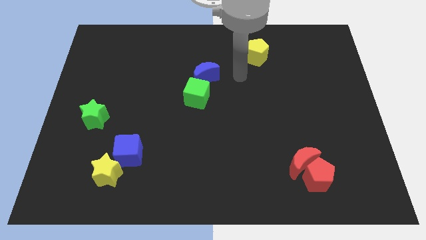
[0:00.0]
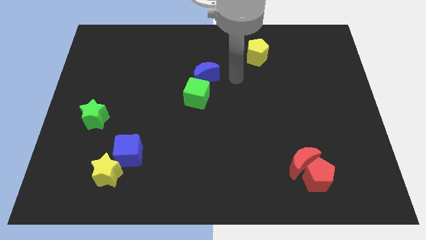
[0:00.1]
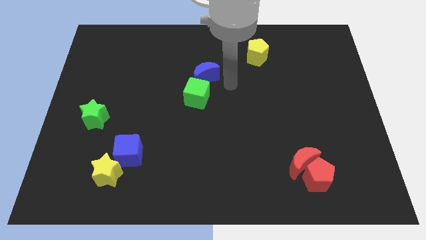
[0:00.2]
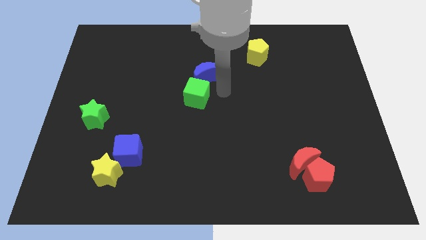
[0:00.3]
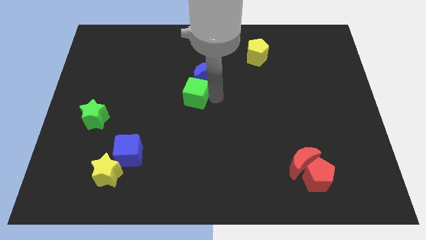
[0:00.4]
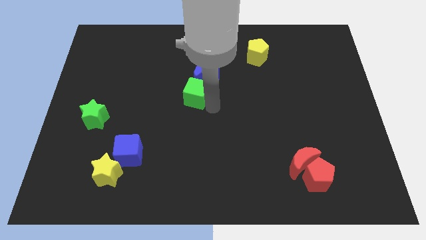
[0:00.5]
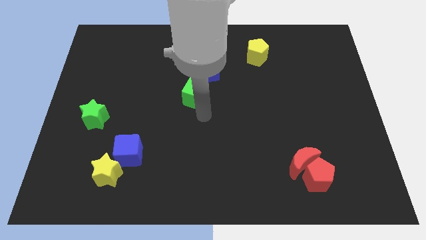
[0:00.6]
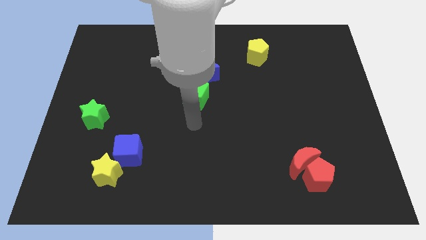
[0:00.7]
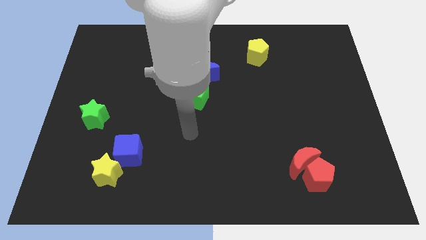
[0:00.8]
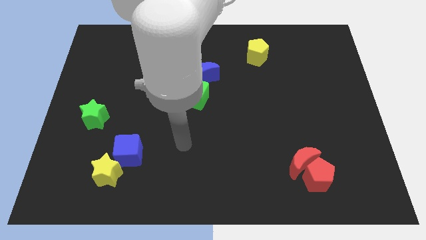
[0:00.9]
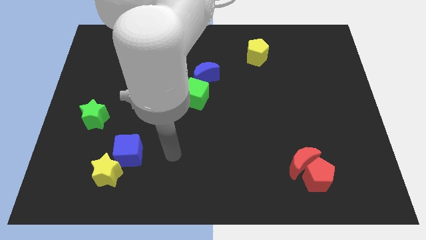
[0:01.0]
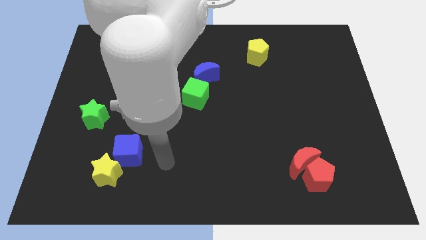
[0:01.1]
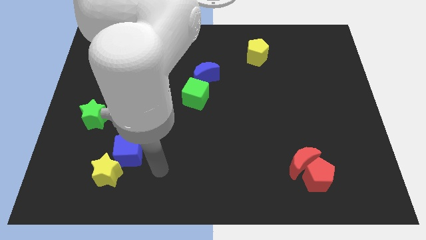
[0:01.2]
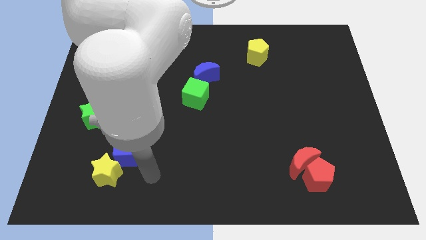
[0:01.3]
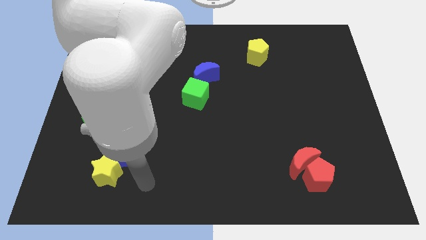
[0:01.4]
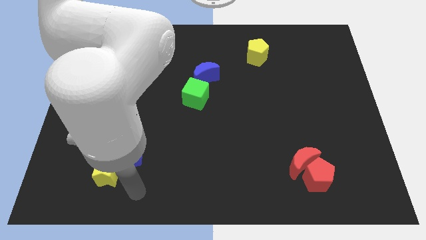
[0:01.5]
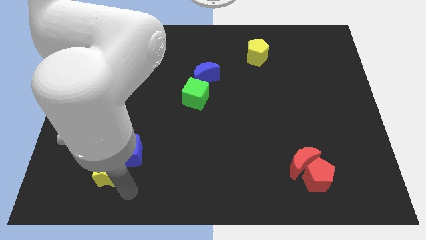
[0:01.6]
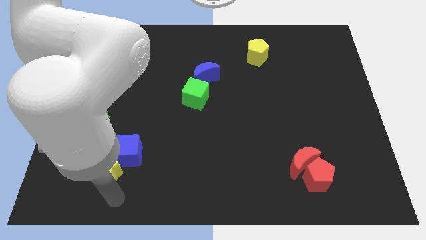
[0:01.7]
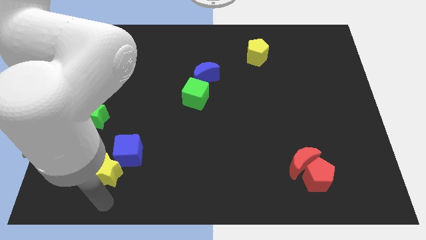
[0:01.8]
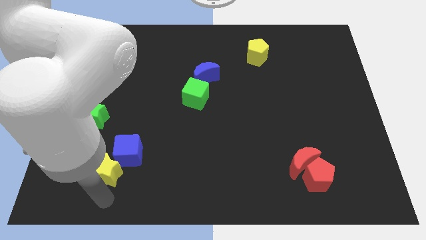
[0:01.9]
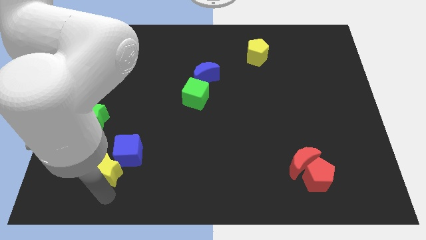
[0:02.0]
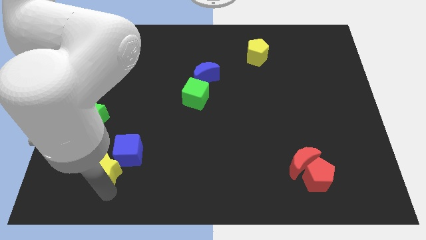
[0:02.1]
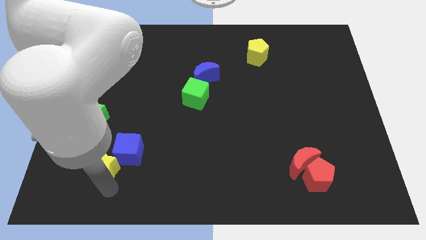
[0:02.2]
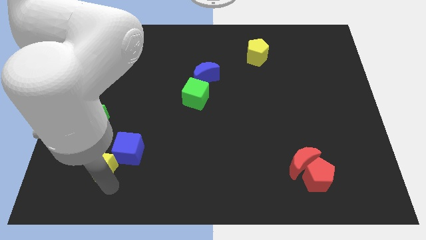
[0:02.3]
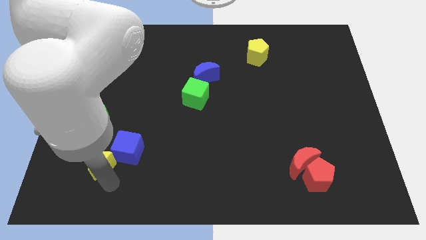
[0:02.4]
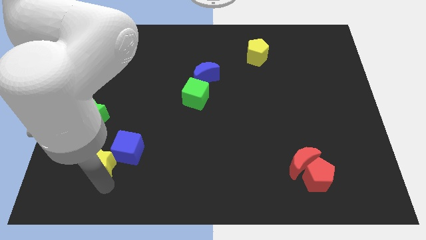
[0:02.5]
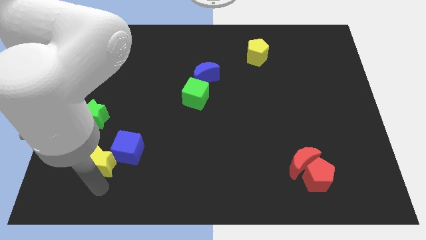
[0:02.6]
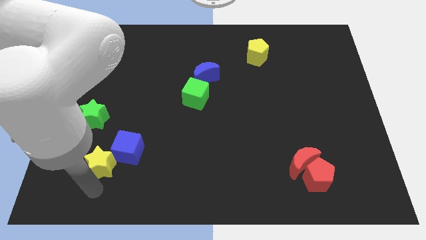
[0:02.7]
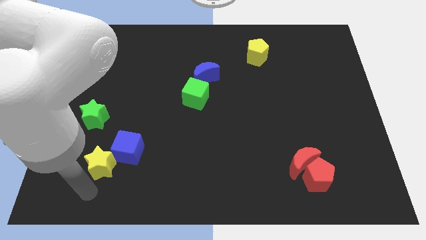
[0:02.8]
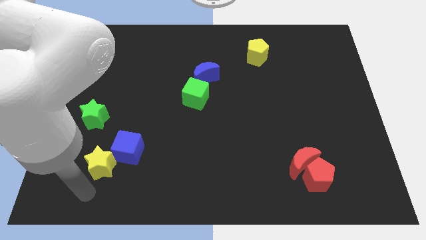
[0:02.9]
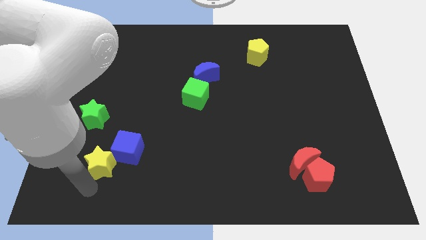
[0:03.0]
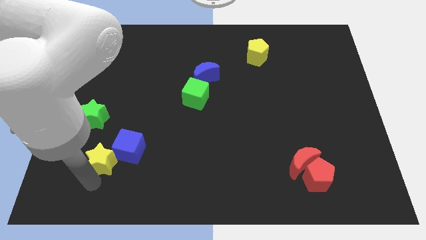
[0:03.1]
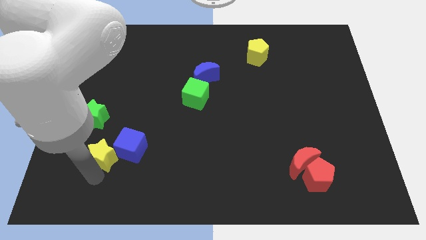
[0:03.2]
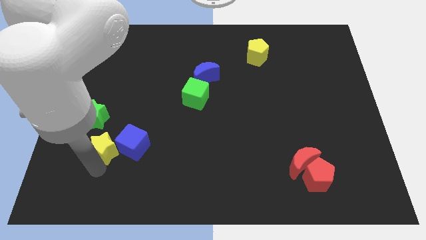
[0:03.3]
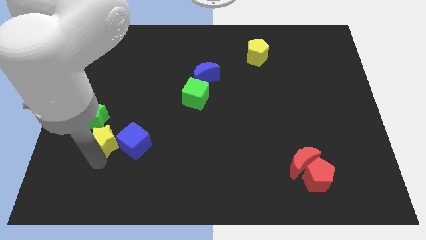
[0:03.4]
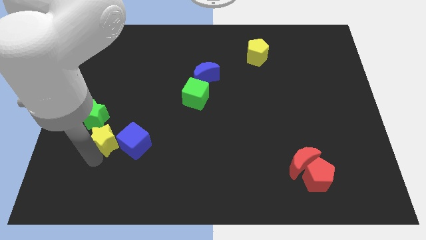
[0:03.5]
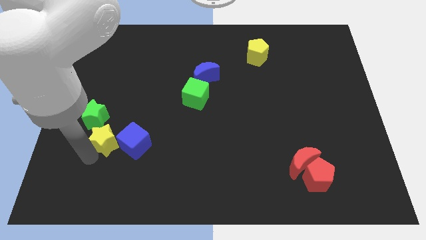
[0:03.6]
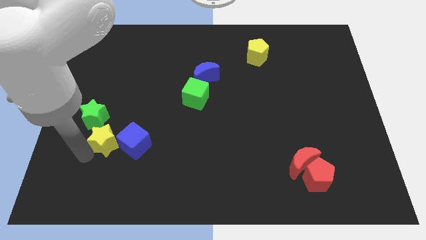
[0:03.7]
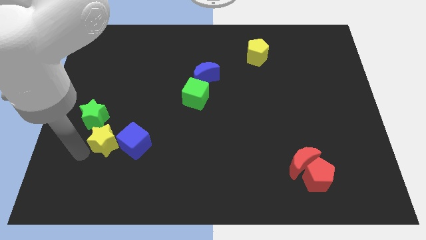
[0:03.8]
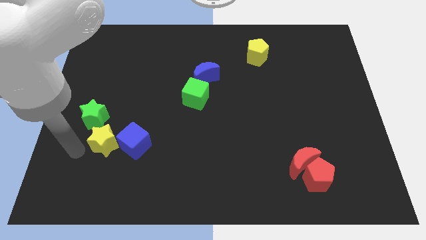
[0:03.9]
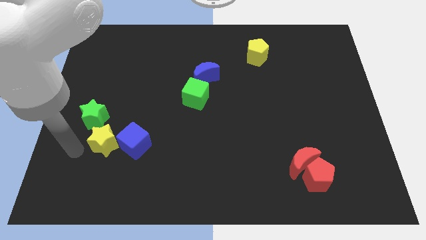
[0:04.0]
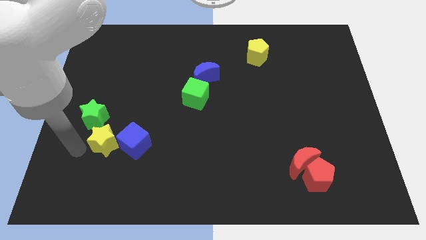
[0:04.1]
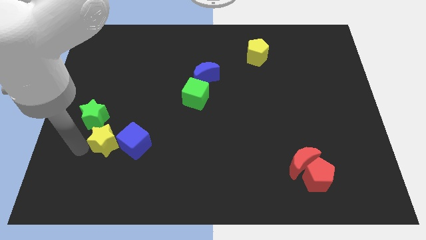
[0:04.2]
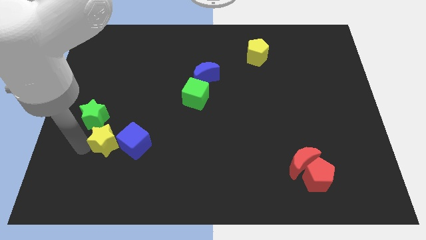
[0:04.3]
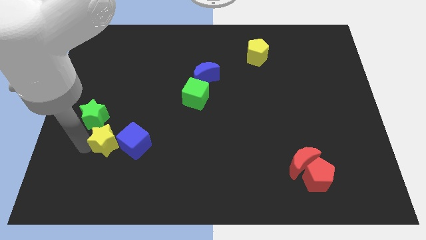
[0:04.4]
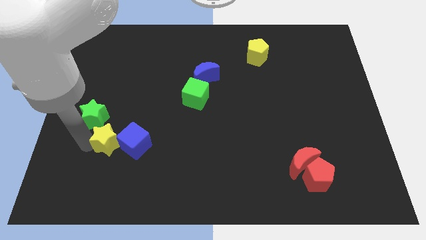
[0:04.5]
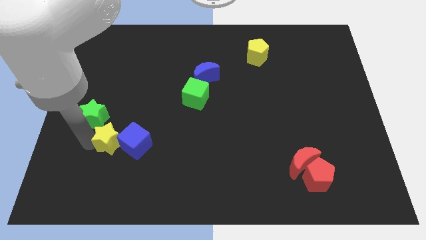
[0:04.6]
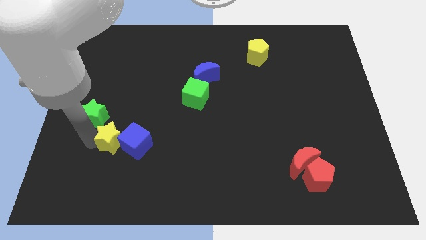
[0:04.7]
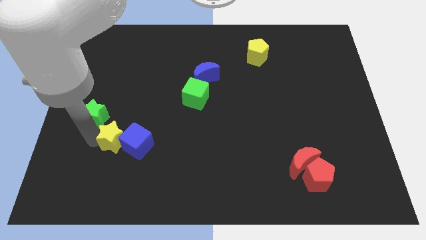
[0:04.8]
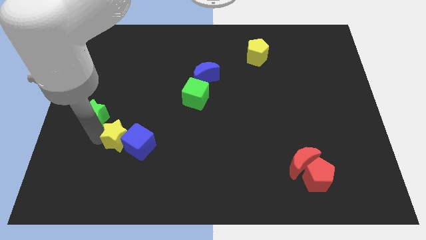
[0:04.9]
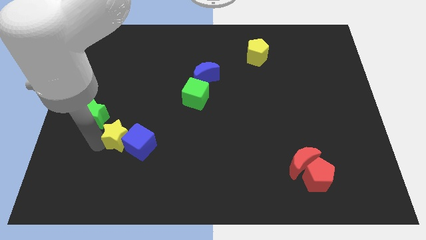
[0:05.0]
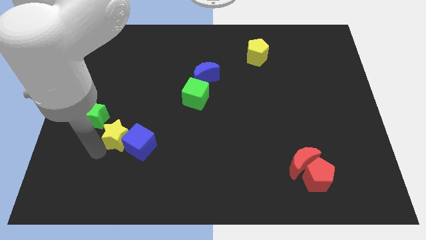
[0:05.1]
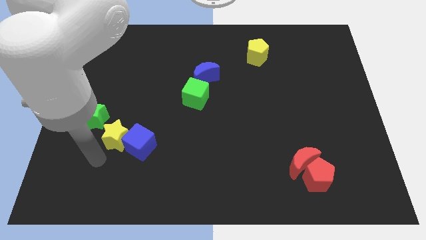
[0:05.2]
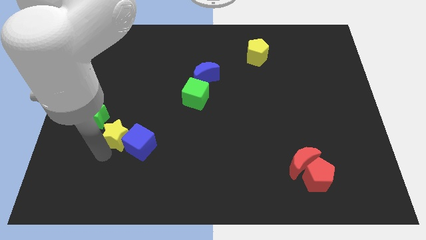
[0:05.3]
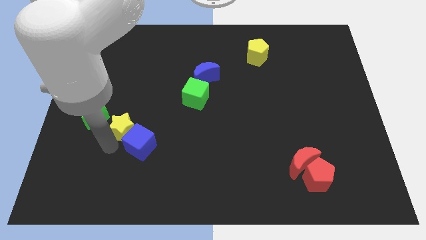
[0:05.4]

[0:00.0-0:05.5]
push the yellow star above the blue cube

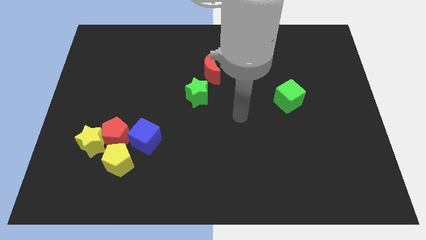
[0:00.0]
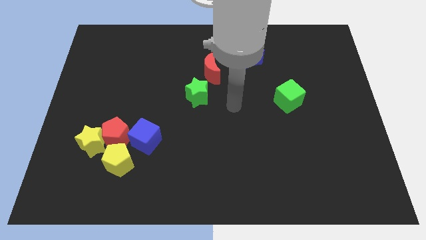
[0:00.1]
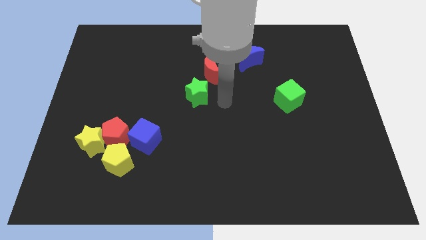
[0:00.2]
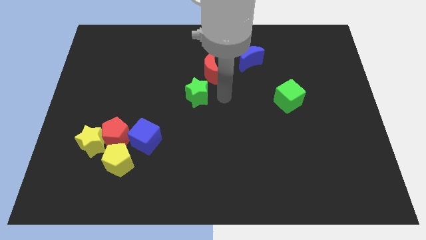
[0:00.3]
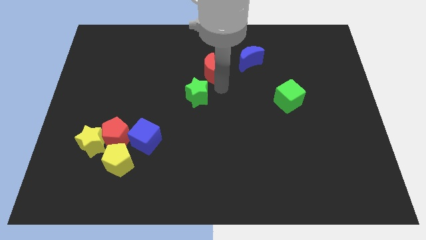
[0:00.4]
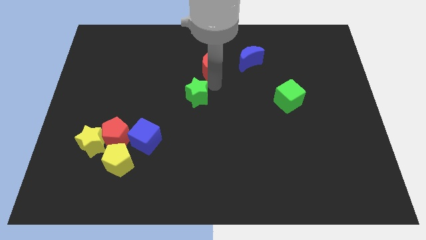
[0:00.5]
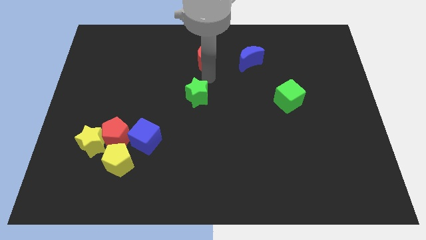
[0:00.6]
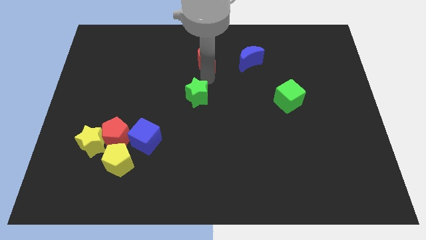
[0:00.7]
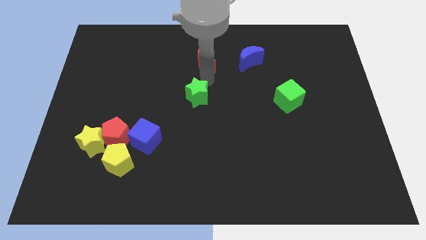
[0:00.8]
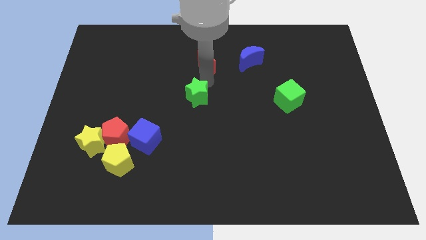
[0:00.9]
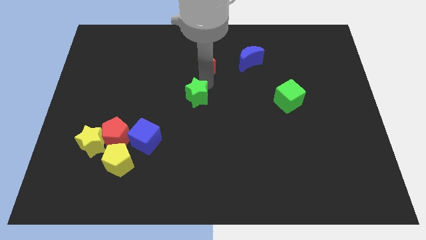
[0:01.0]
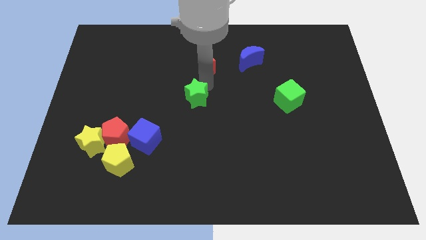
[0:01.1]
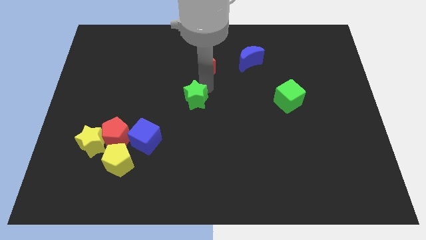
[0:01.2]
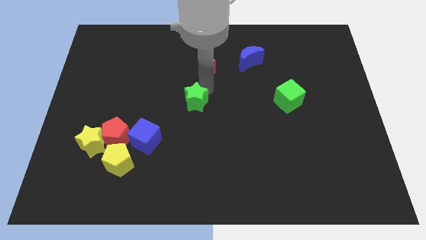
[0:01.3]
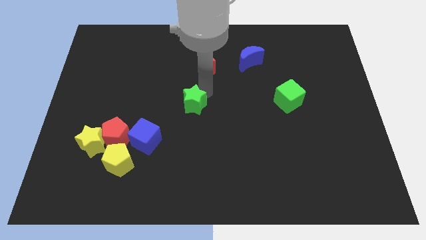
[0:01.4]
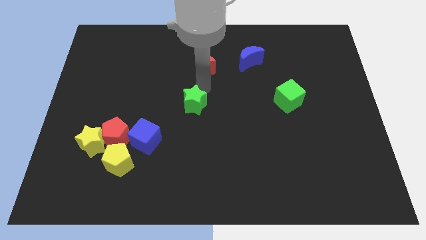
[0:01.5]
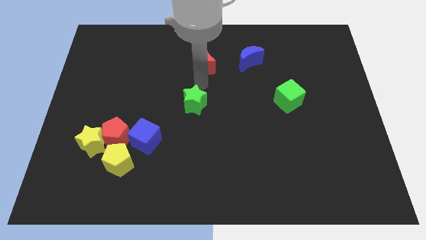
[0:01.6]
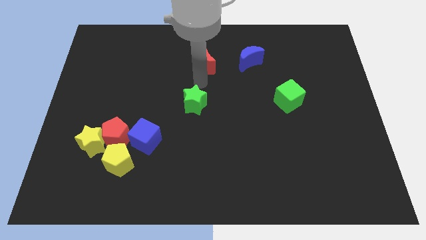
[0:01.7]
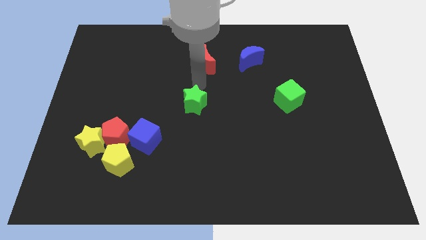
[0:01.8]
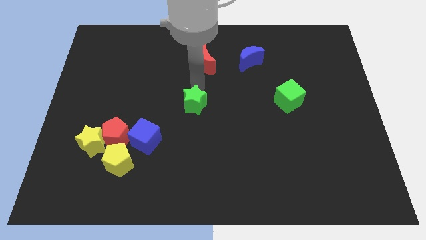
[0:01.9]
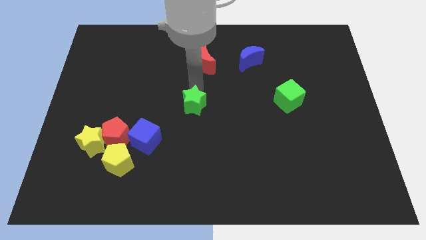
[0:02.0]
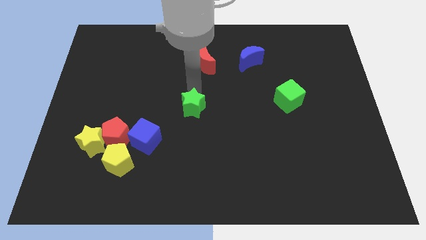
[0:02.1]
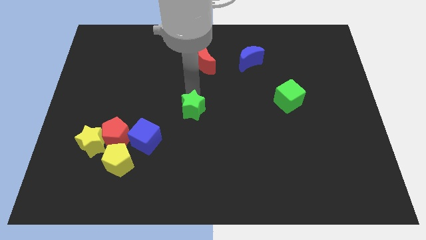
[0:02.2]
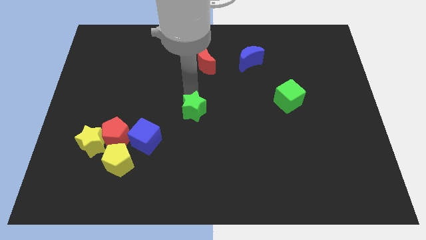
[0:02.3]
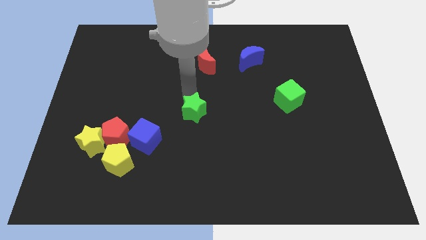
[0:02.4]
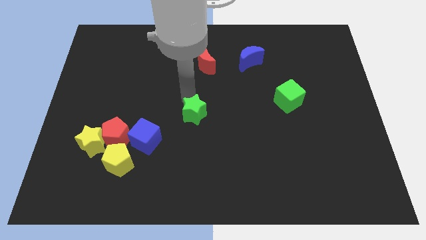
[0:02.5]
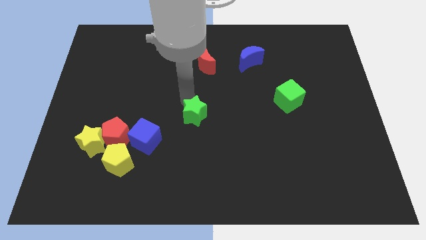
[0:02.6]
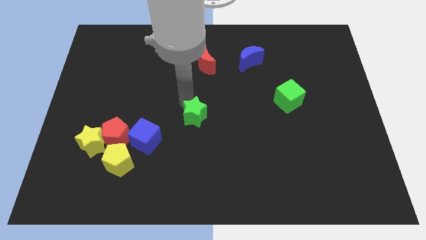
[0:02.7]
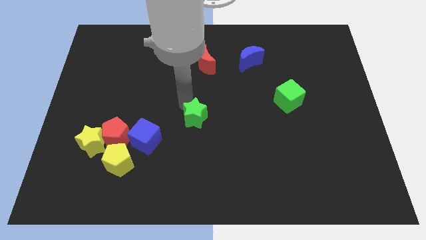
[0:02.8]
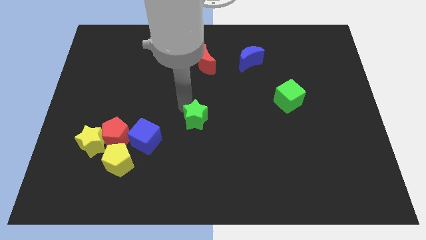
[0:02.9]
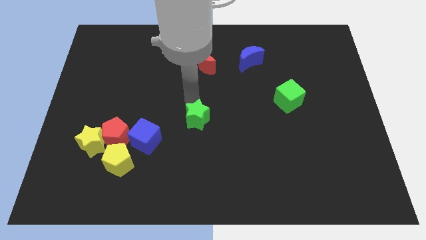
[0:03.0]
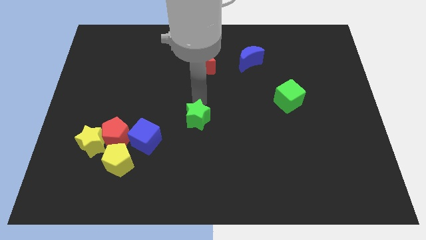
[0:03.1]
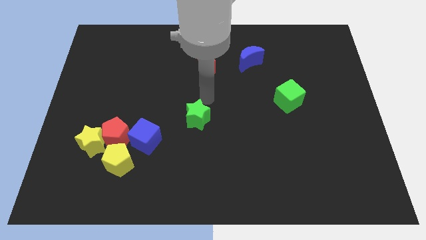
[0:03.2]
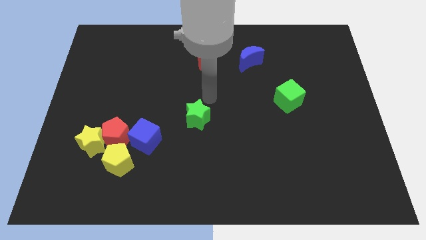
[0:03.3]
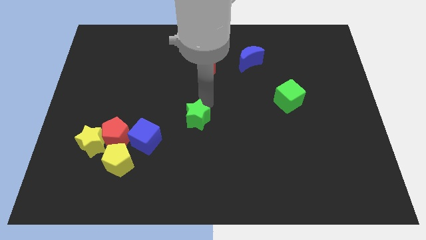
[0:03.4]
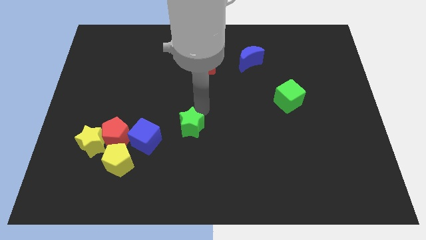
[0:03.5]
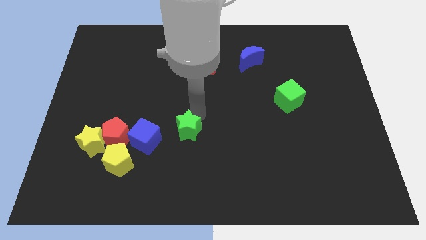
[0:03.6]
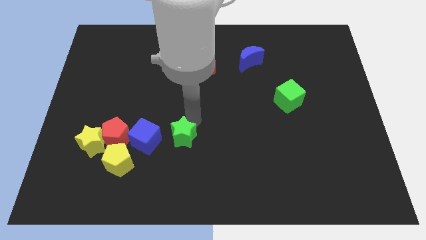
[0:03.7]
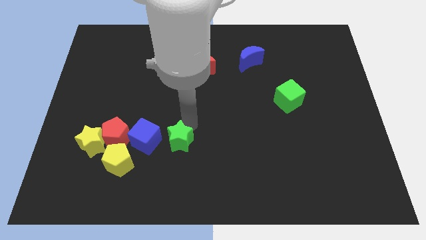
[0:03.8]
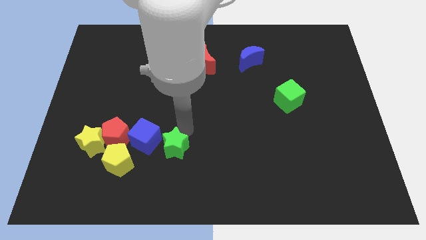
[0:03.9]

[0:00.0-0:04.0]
push the green star to the bottom right side of the blue cube
